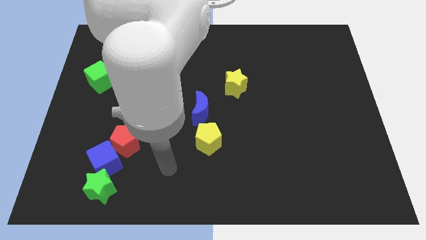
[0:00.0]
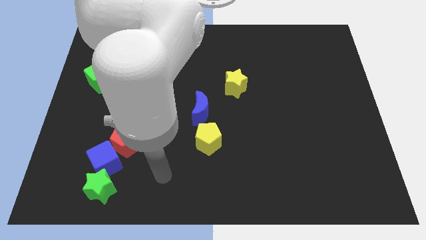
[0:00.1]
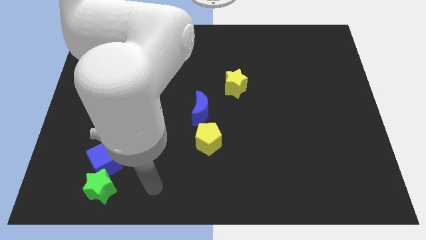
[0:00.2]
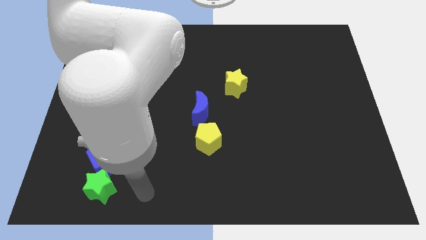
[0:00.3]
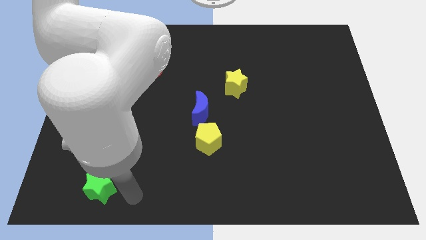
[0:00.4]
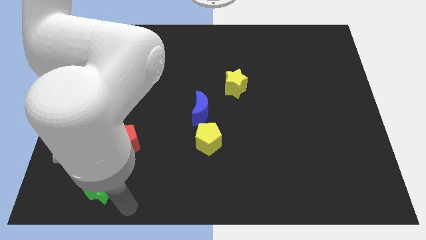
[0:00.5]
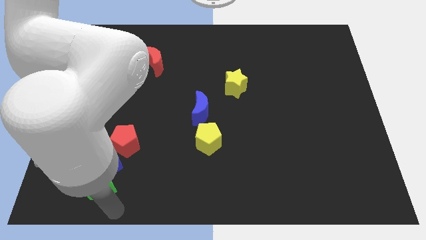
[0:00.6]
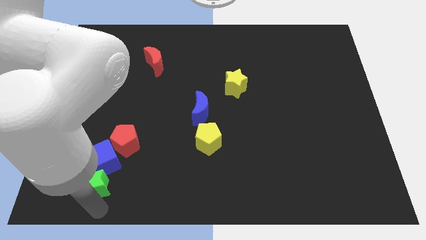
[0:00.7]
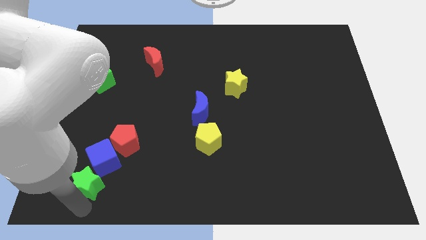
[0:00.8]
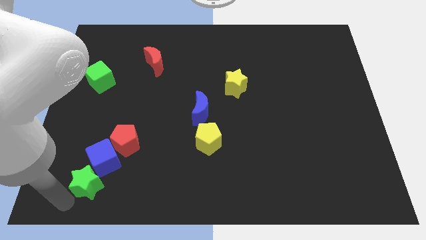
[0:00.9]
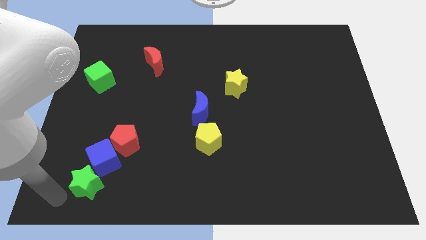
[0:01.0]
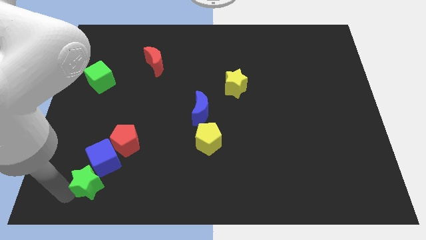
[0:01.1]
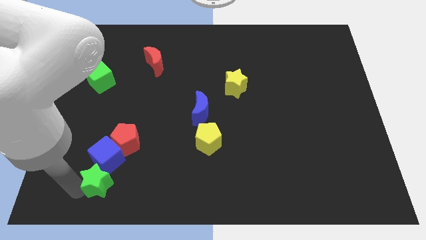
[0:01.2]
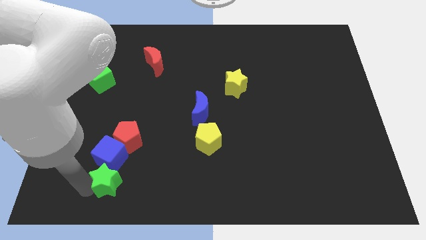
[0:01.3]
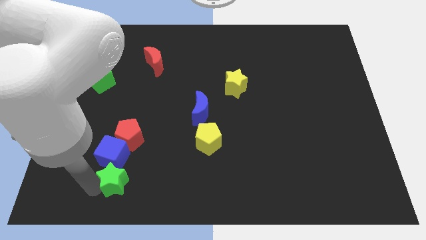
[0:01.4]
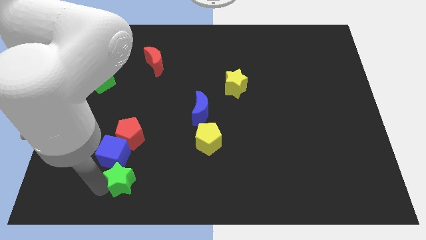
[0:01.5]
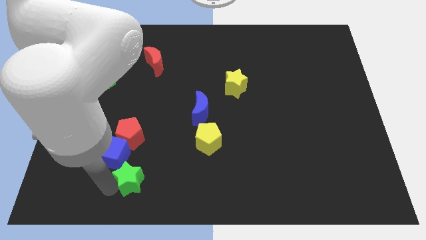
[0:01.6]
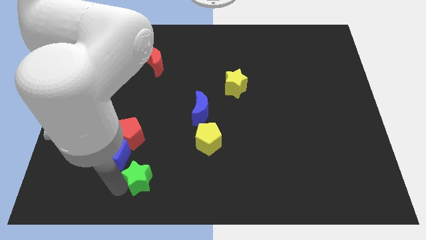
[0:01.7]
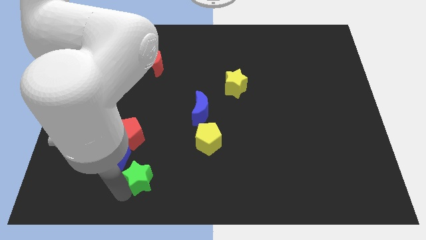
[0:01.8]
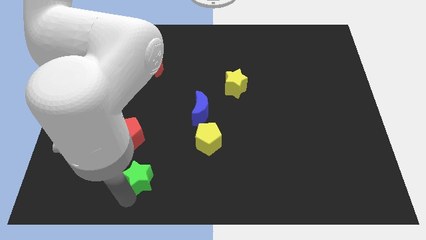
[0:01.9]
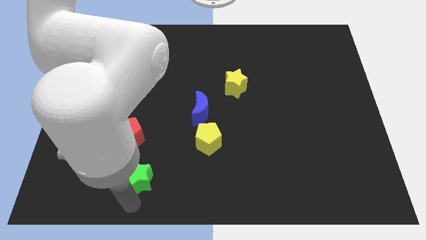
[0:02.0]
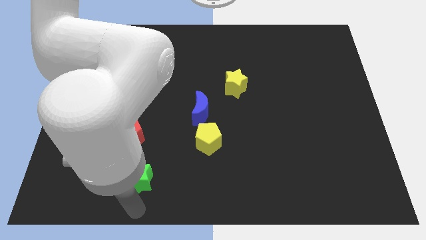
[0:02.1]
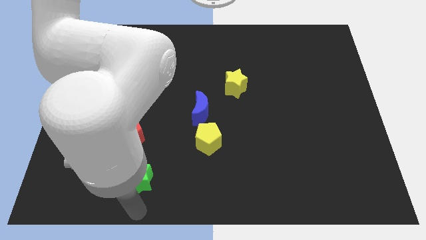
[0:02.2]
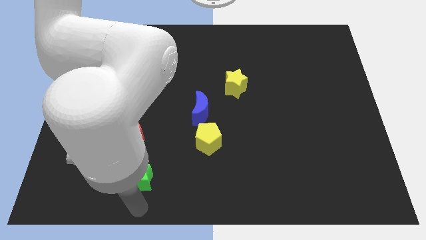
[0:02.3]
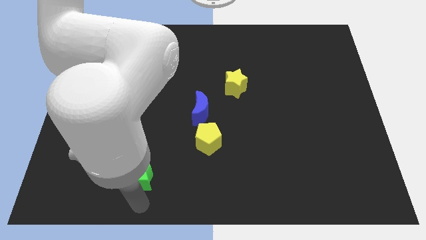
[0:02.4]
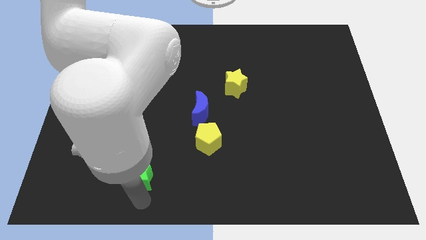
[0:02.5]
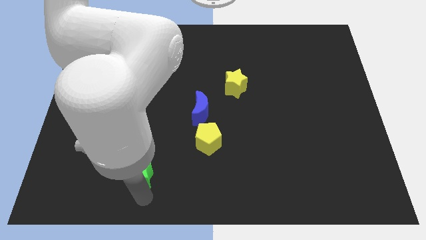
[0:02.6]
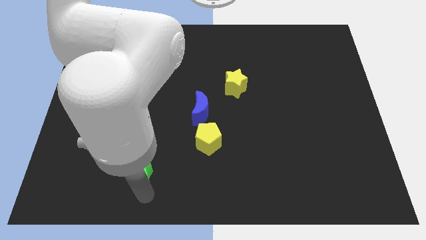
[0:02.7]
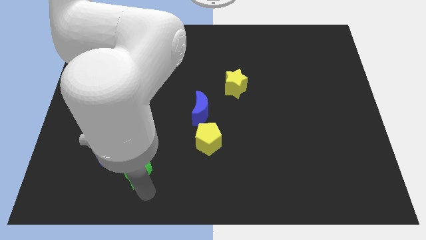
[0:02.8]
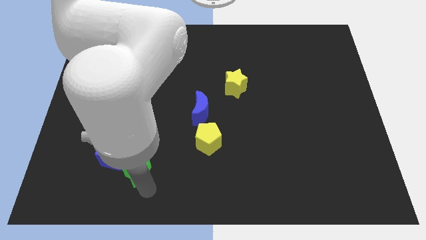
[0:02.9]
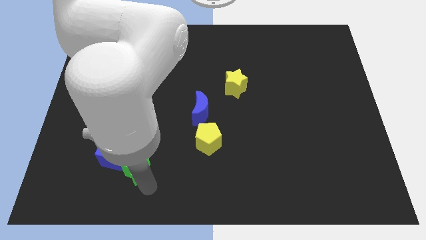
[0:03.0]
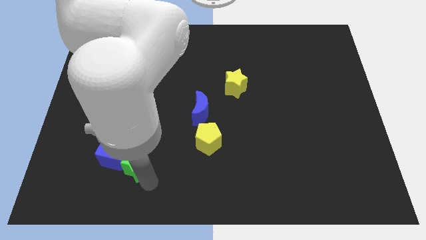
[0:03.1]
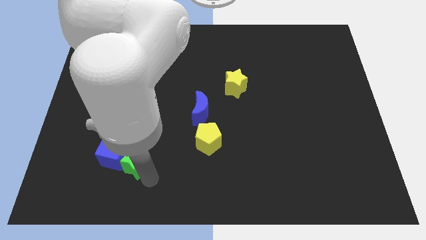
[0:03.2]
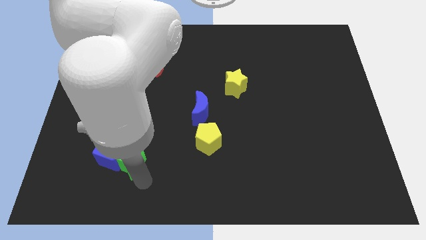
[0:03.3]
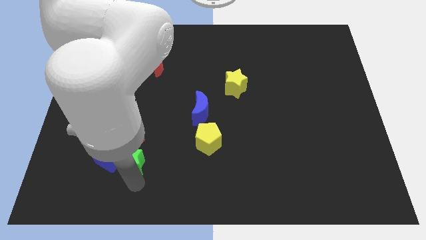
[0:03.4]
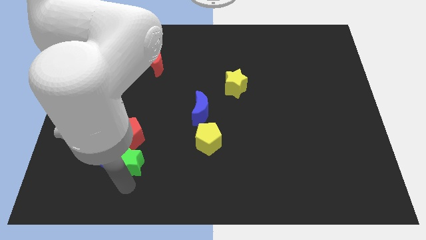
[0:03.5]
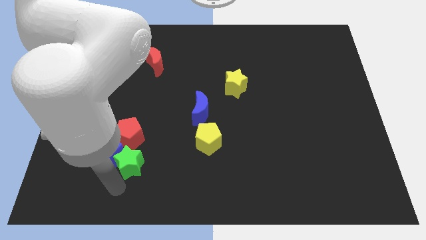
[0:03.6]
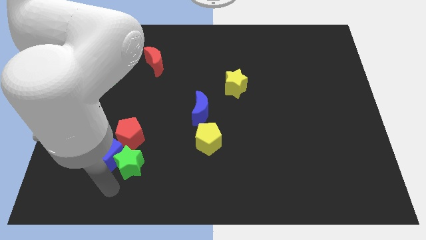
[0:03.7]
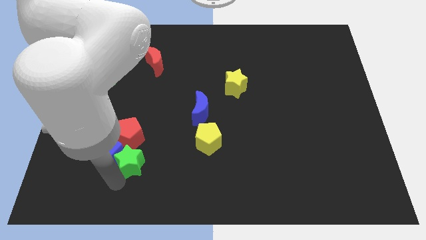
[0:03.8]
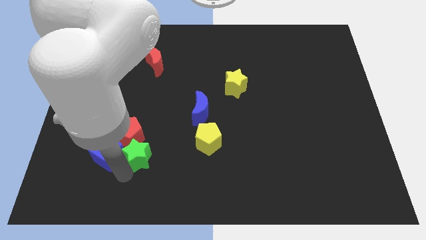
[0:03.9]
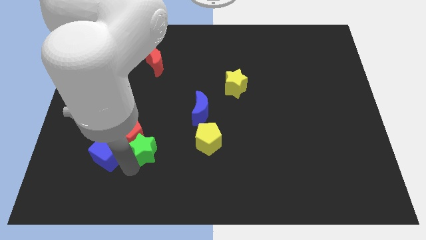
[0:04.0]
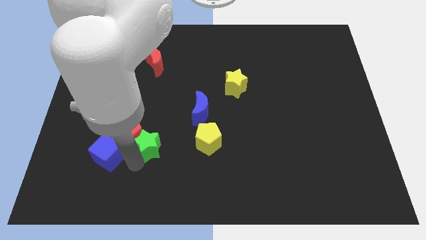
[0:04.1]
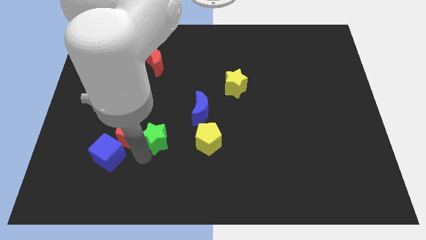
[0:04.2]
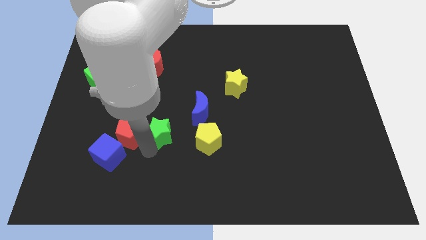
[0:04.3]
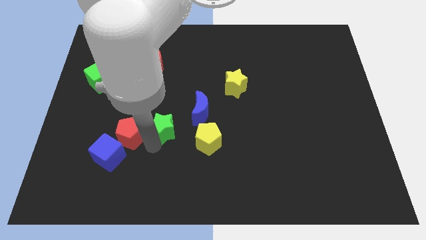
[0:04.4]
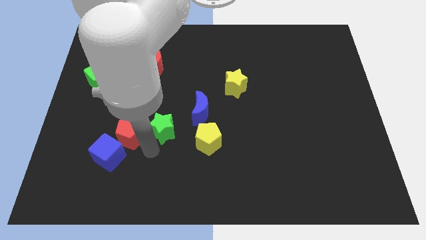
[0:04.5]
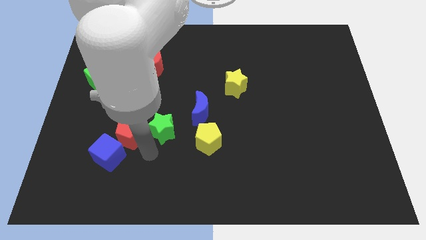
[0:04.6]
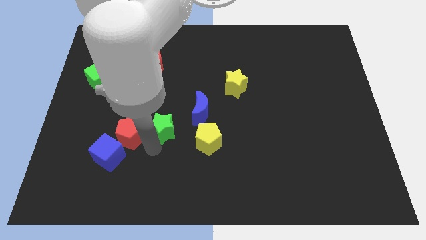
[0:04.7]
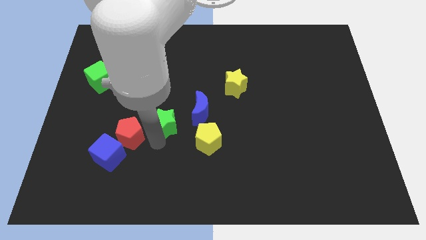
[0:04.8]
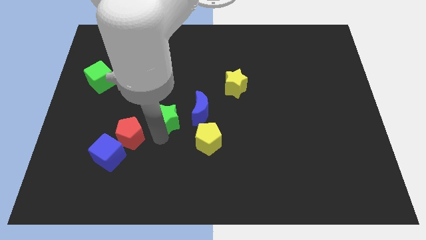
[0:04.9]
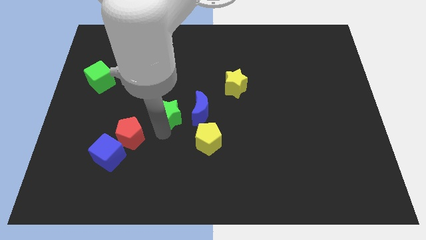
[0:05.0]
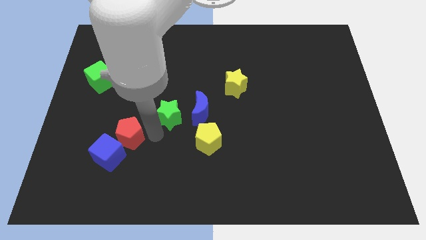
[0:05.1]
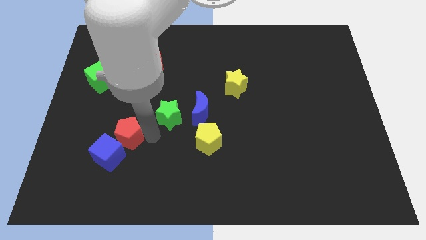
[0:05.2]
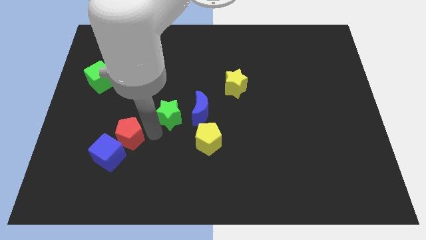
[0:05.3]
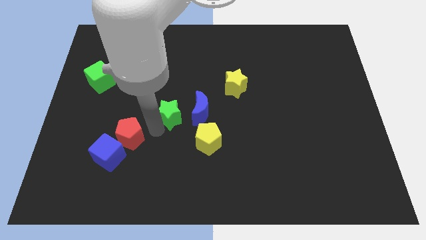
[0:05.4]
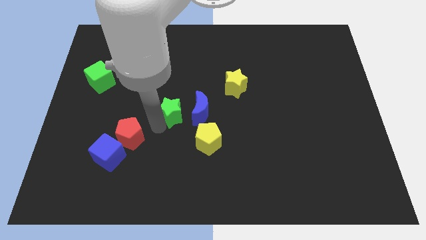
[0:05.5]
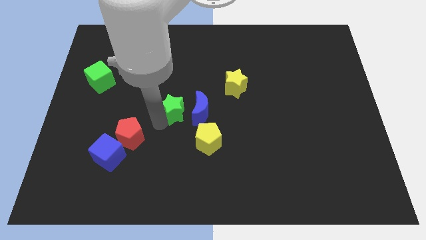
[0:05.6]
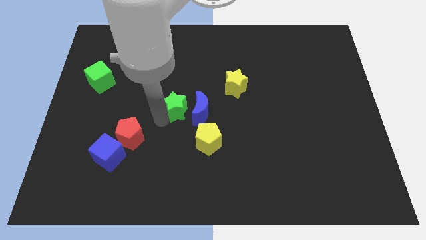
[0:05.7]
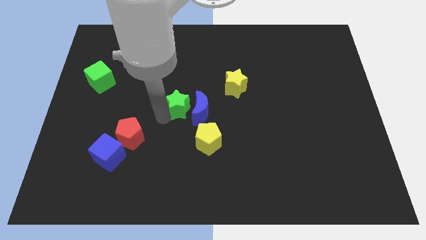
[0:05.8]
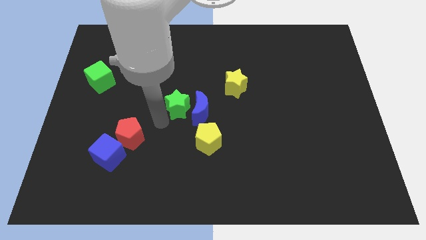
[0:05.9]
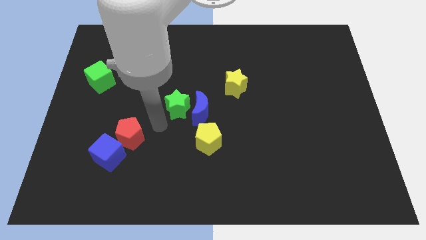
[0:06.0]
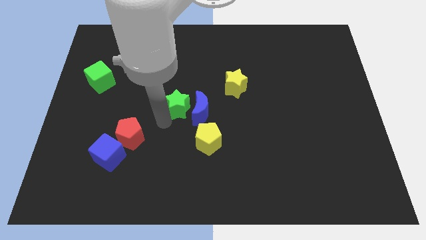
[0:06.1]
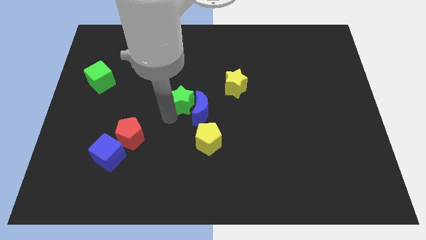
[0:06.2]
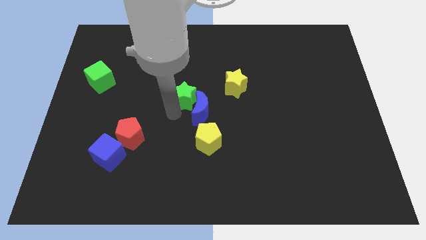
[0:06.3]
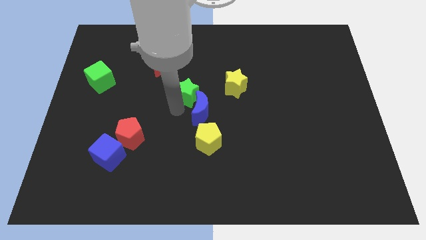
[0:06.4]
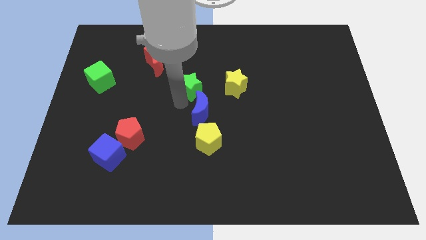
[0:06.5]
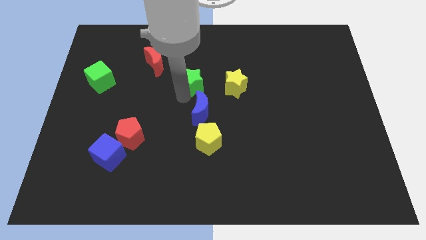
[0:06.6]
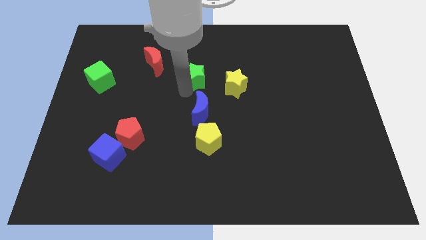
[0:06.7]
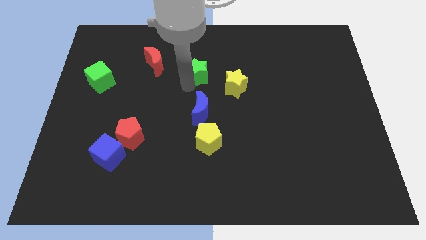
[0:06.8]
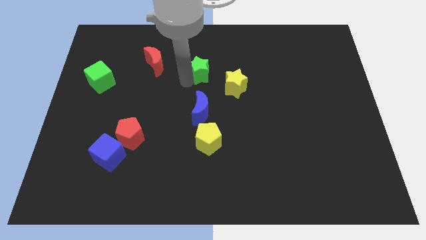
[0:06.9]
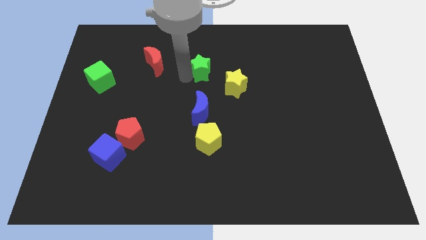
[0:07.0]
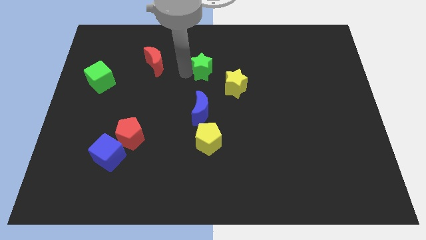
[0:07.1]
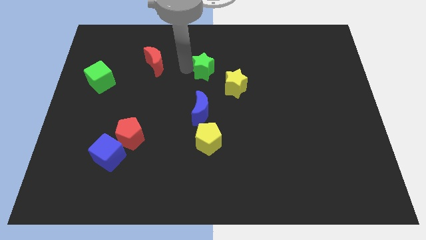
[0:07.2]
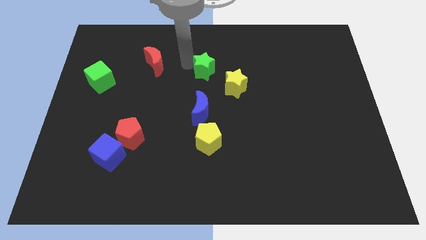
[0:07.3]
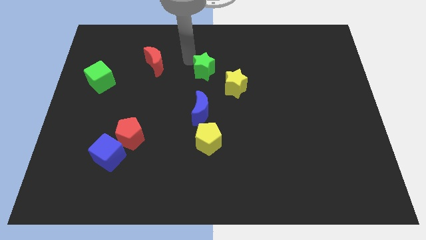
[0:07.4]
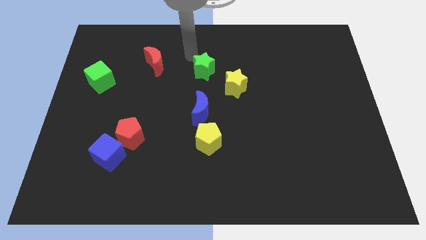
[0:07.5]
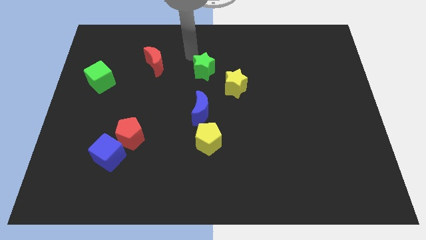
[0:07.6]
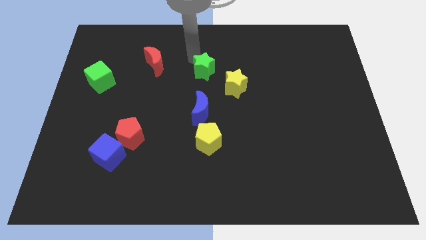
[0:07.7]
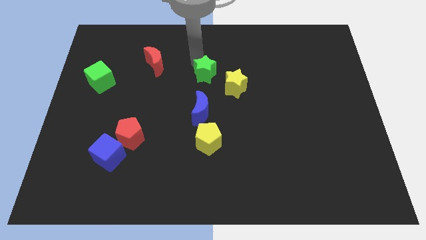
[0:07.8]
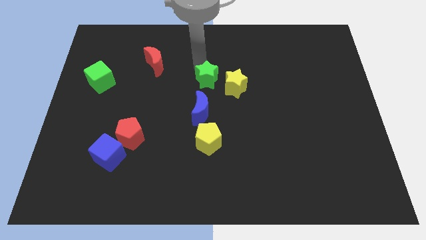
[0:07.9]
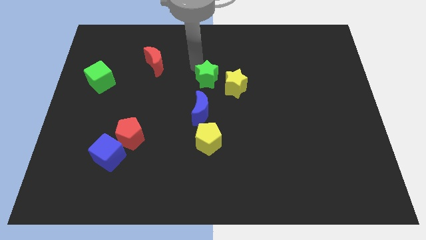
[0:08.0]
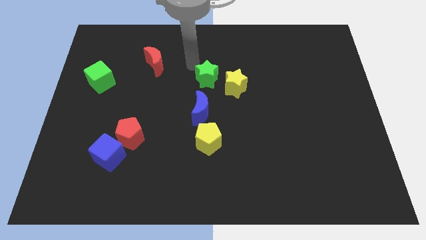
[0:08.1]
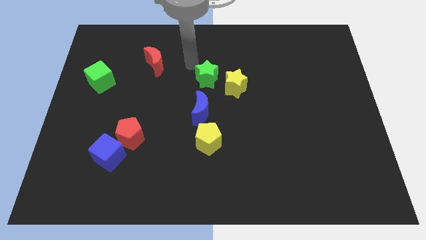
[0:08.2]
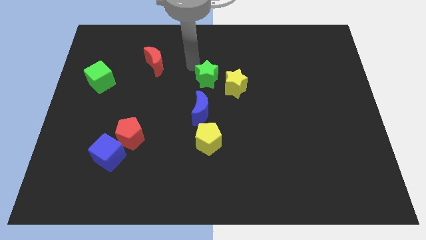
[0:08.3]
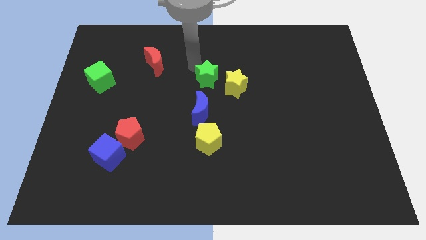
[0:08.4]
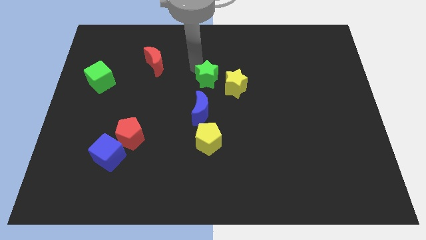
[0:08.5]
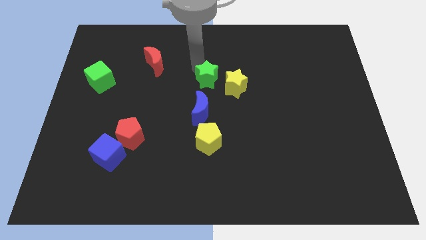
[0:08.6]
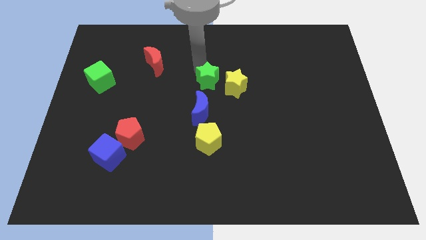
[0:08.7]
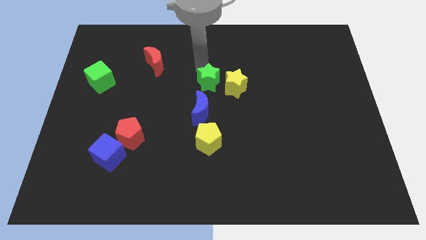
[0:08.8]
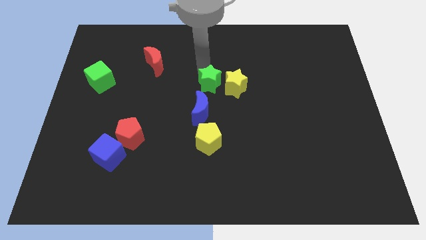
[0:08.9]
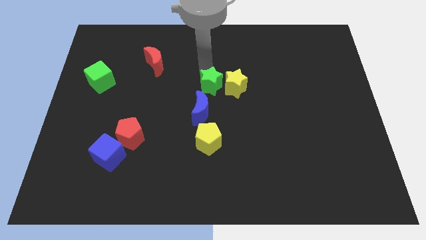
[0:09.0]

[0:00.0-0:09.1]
push the green star close to the yellow star
